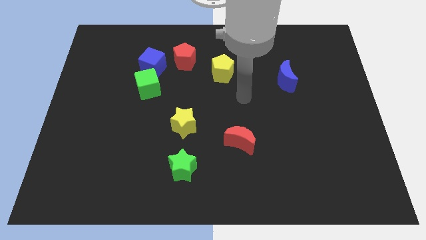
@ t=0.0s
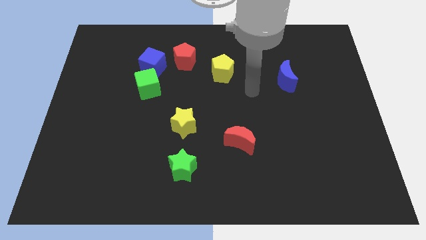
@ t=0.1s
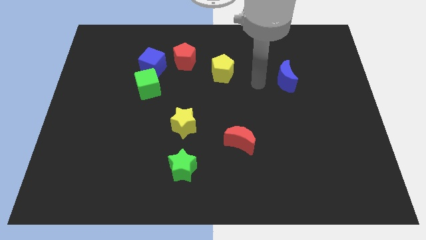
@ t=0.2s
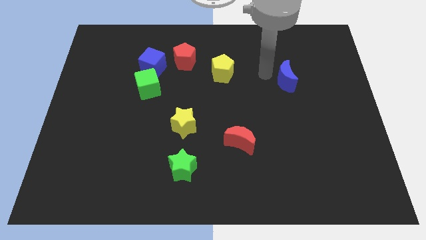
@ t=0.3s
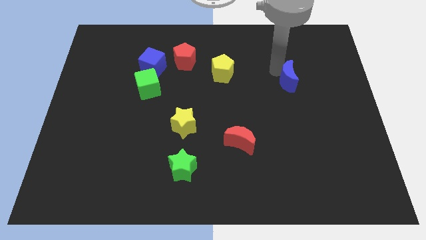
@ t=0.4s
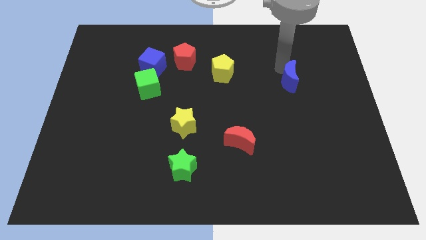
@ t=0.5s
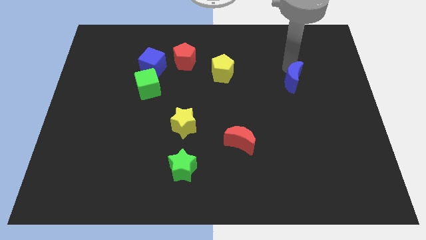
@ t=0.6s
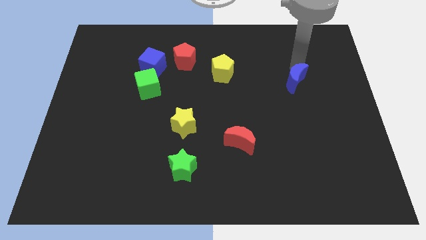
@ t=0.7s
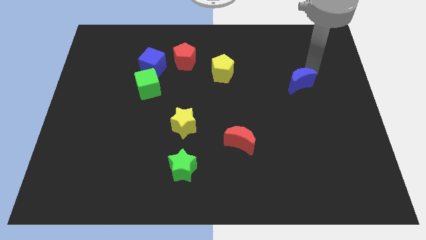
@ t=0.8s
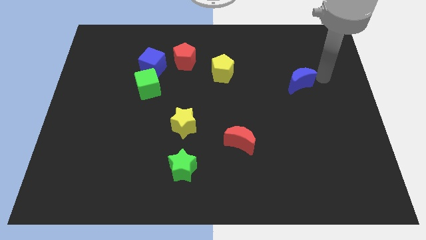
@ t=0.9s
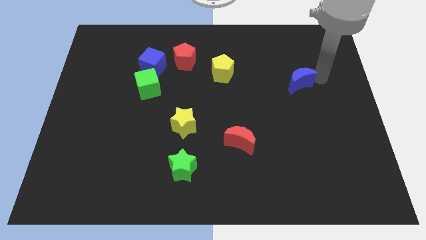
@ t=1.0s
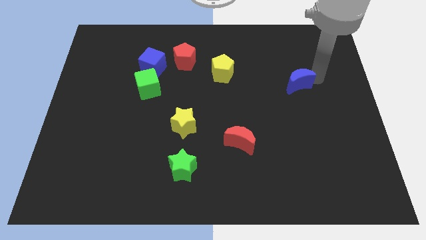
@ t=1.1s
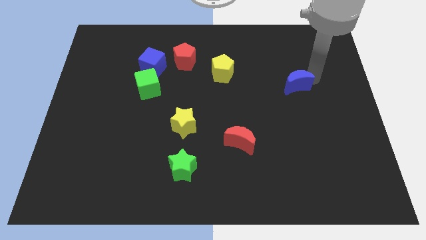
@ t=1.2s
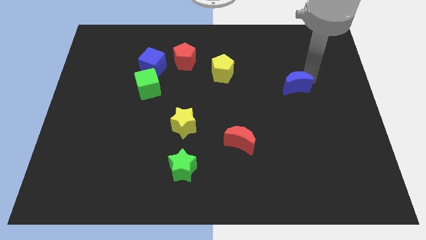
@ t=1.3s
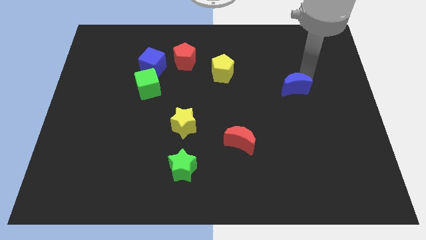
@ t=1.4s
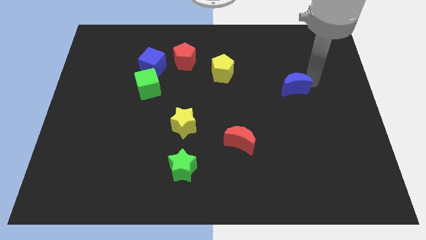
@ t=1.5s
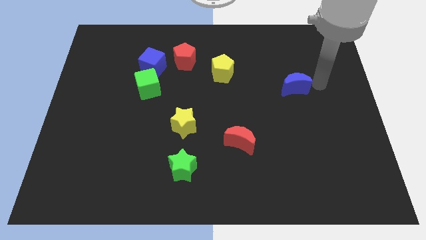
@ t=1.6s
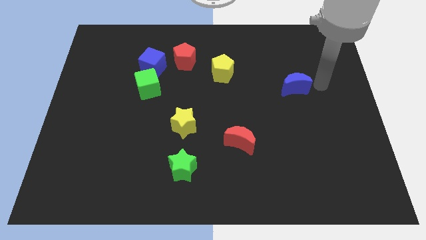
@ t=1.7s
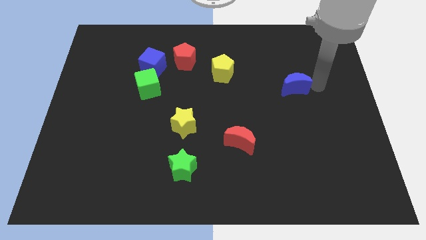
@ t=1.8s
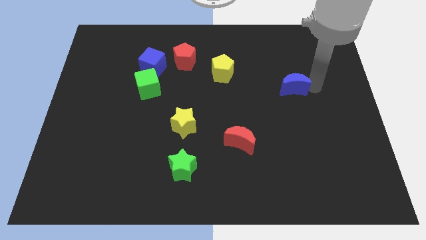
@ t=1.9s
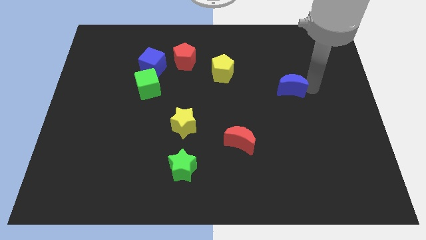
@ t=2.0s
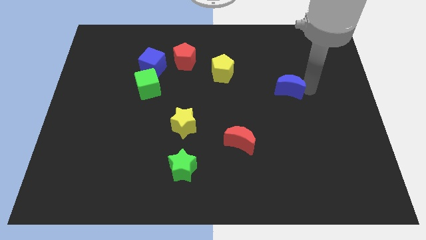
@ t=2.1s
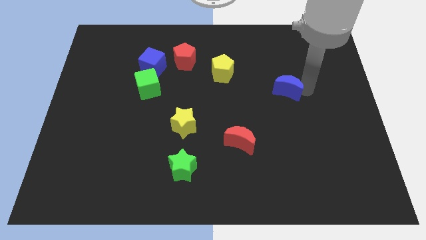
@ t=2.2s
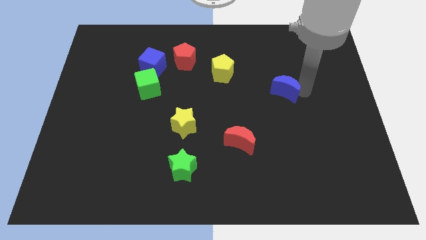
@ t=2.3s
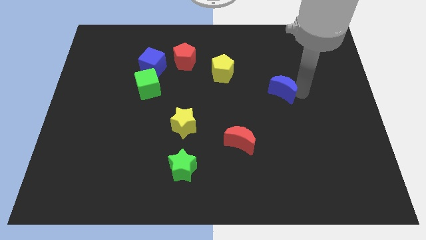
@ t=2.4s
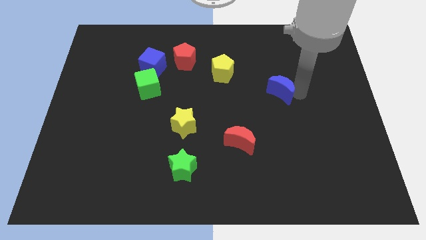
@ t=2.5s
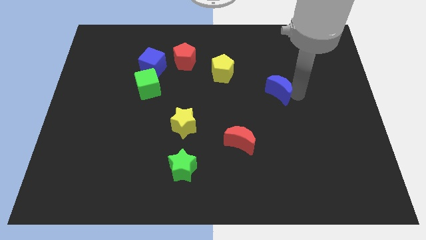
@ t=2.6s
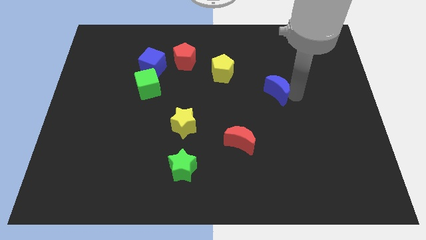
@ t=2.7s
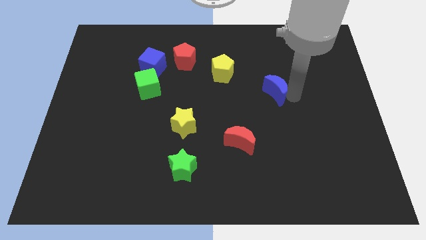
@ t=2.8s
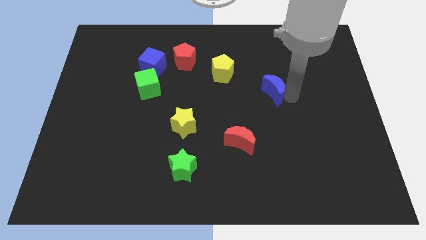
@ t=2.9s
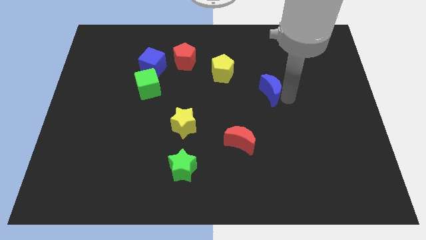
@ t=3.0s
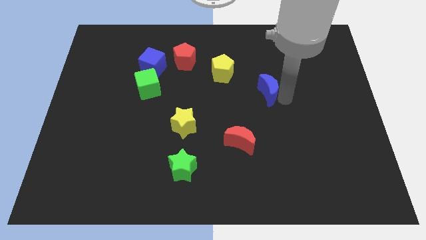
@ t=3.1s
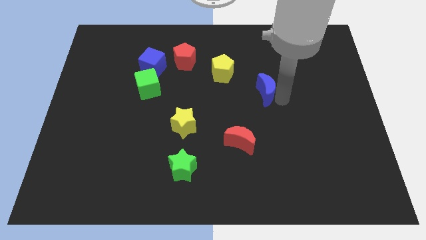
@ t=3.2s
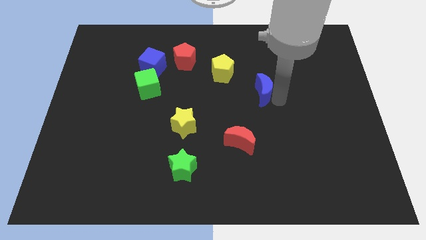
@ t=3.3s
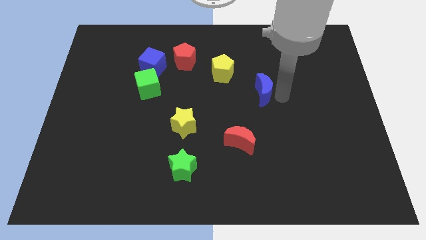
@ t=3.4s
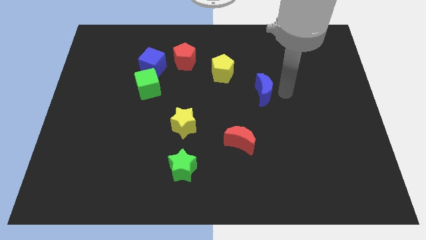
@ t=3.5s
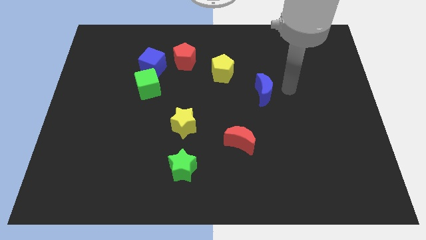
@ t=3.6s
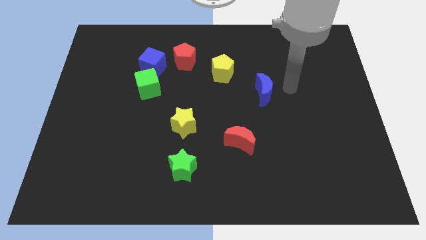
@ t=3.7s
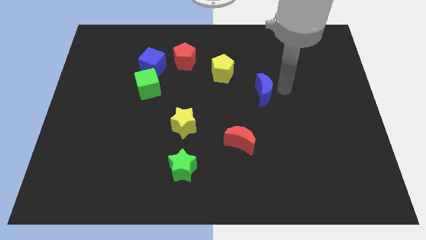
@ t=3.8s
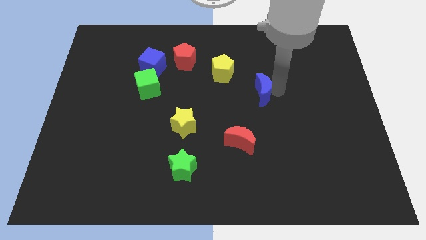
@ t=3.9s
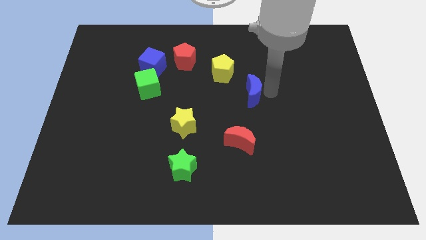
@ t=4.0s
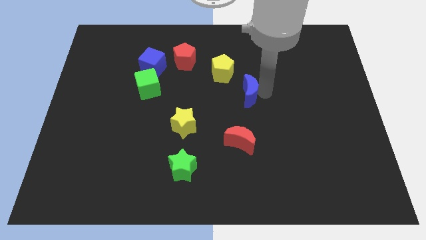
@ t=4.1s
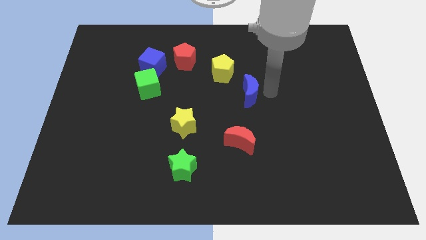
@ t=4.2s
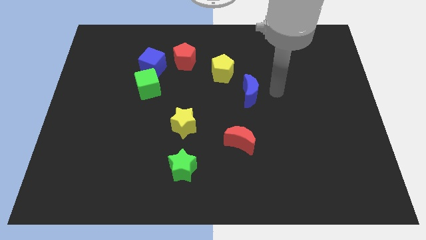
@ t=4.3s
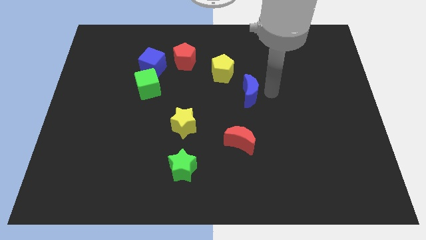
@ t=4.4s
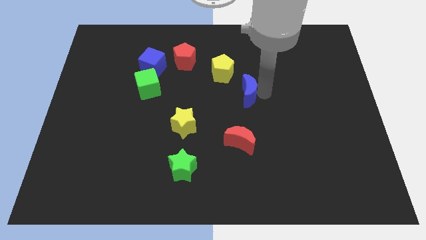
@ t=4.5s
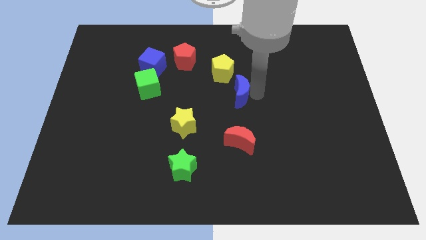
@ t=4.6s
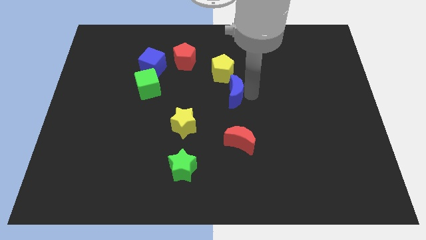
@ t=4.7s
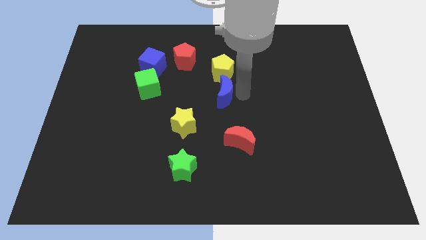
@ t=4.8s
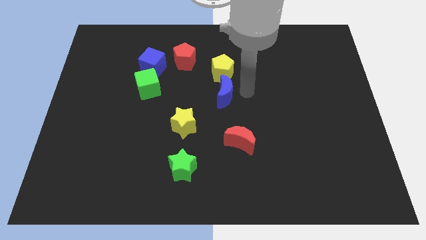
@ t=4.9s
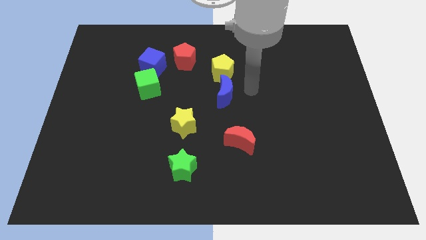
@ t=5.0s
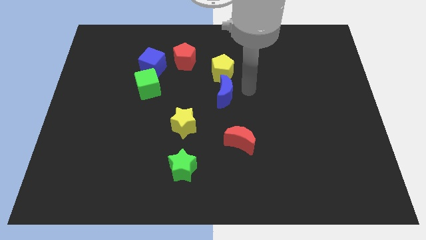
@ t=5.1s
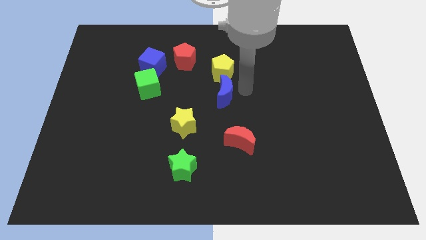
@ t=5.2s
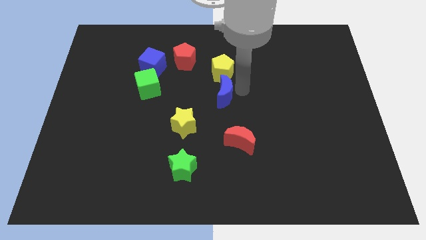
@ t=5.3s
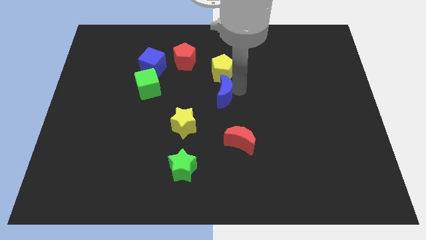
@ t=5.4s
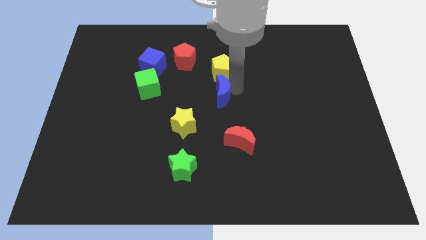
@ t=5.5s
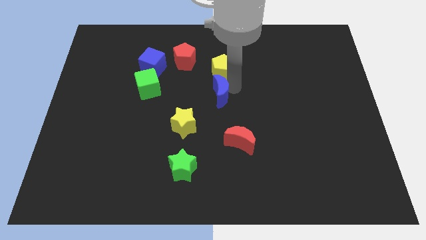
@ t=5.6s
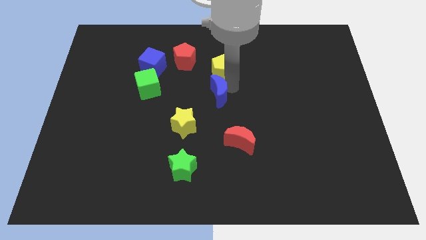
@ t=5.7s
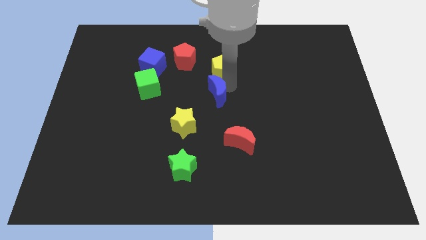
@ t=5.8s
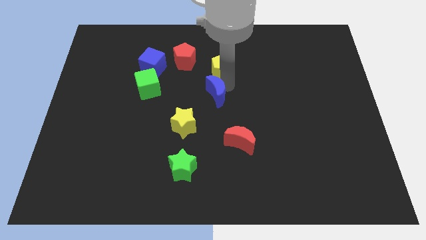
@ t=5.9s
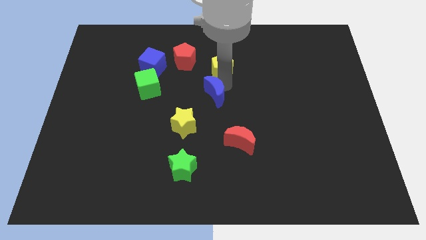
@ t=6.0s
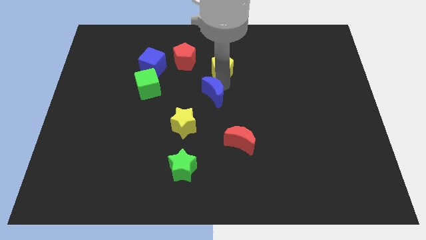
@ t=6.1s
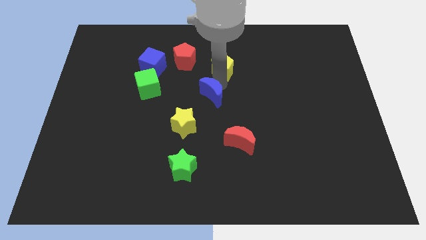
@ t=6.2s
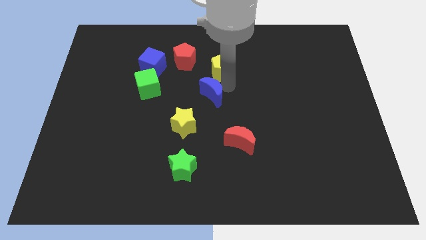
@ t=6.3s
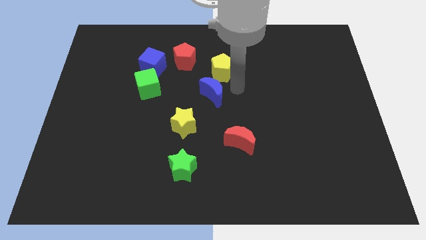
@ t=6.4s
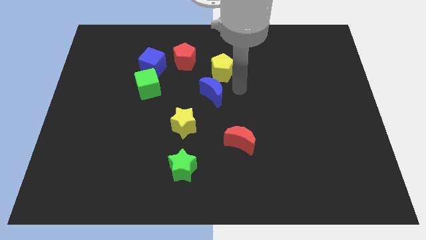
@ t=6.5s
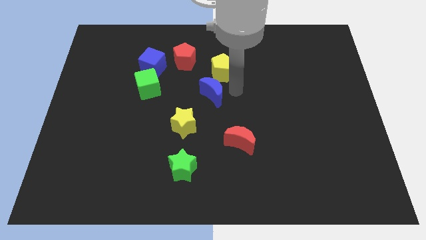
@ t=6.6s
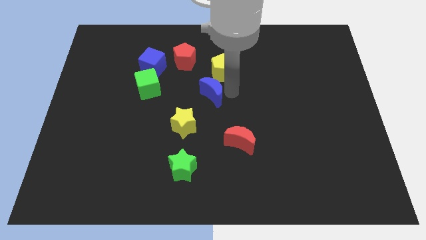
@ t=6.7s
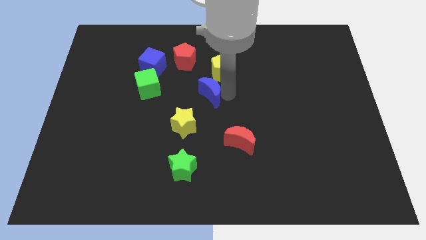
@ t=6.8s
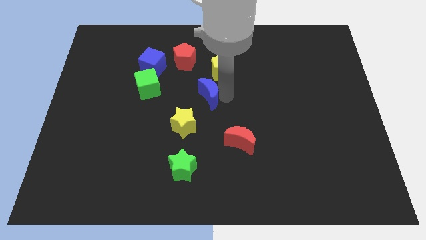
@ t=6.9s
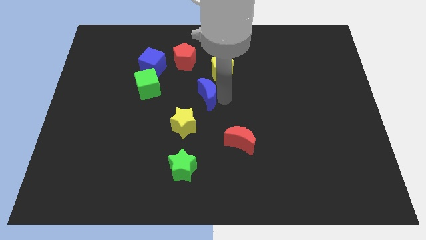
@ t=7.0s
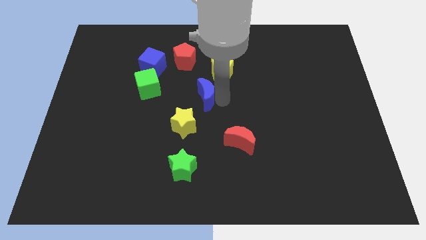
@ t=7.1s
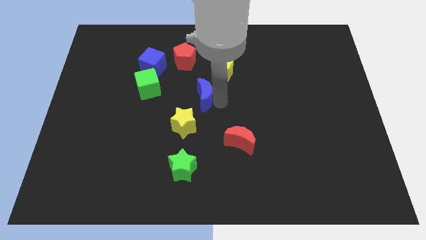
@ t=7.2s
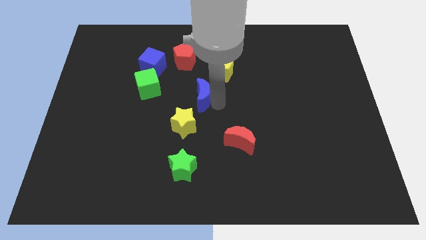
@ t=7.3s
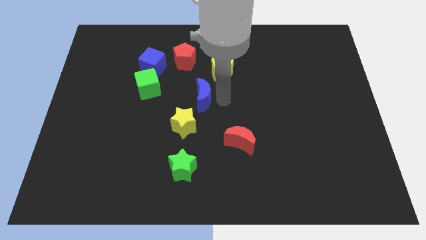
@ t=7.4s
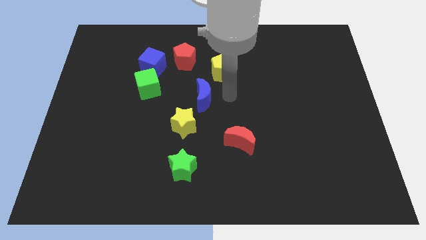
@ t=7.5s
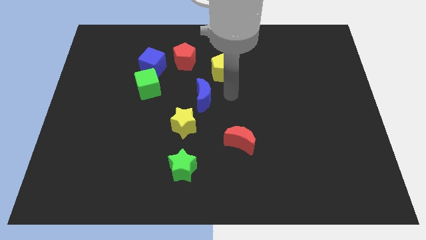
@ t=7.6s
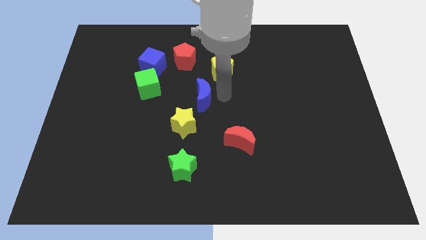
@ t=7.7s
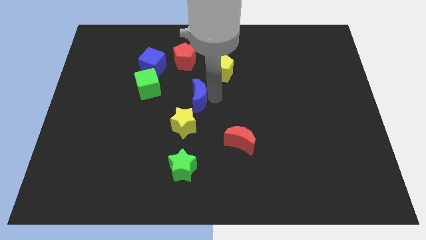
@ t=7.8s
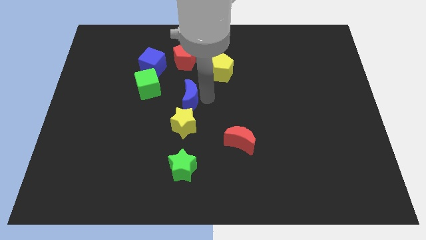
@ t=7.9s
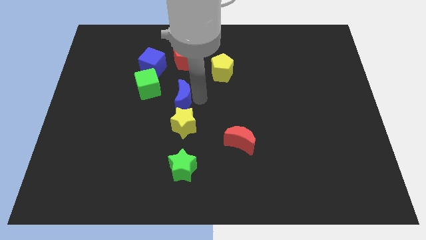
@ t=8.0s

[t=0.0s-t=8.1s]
move the blue moon to the bottom right of the green cube
